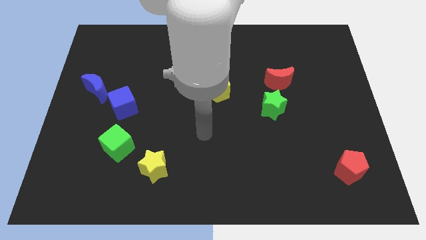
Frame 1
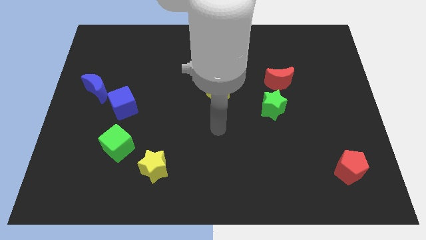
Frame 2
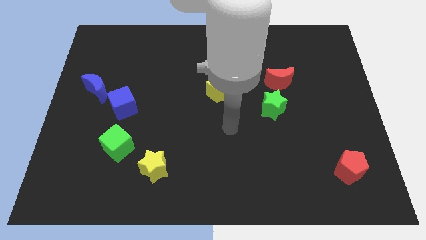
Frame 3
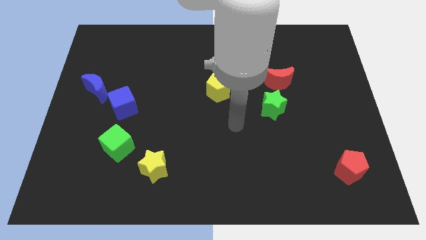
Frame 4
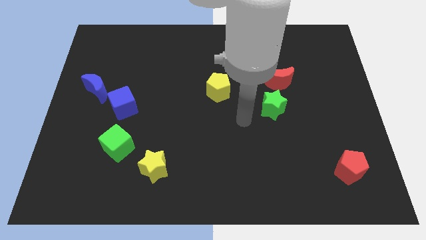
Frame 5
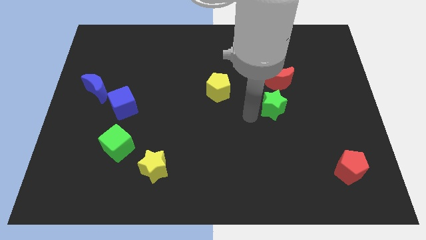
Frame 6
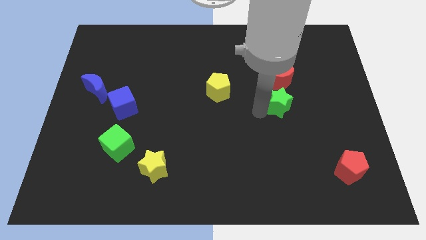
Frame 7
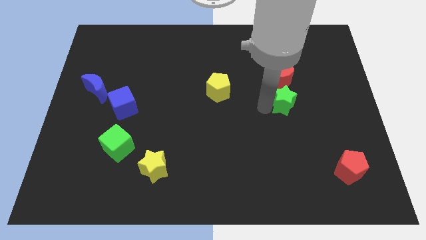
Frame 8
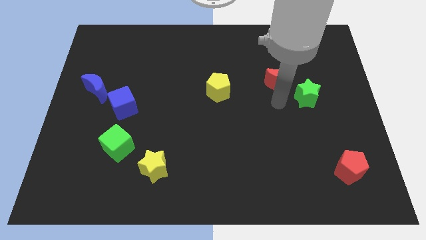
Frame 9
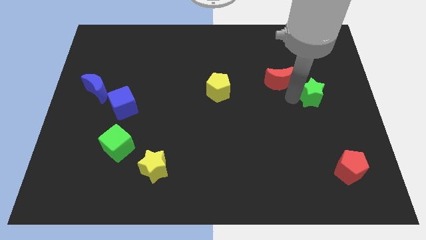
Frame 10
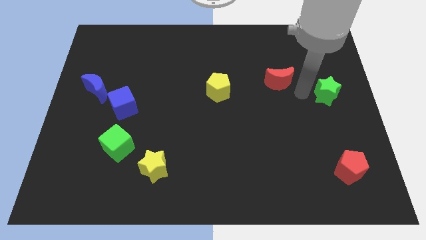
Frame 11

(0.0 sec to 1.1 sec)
move the red moon away from the green star

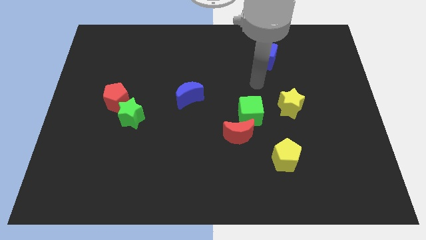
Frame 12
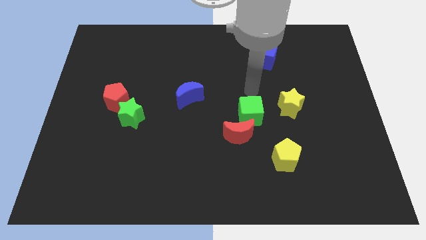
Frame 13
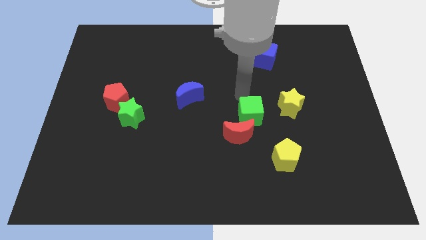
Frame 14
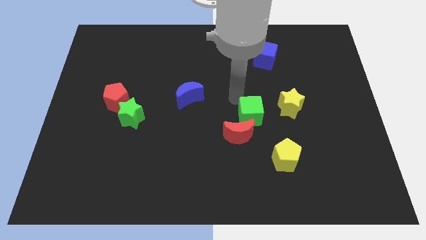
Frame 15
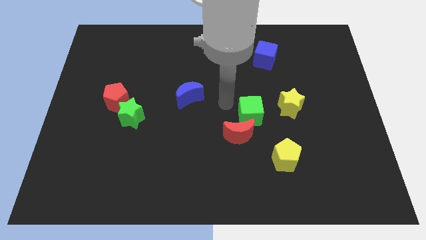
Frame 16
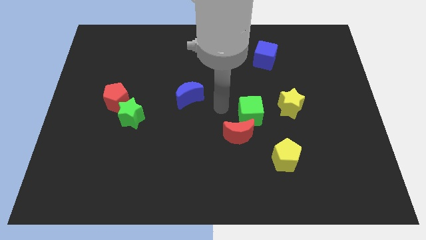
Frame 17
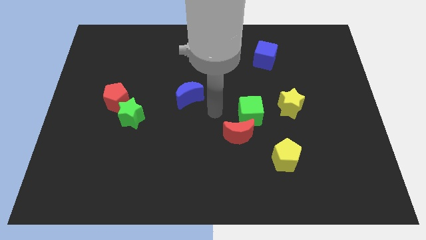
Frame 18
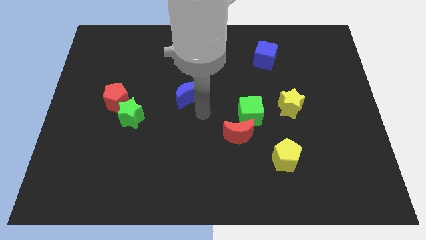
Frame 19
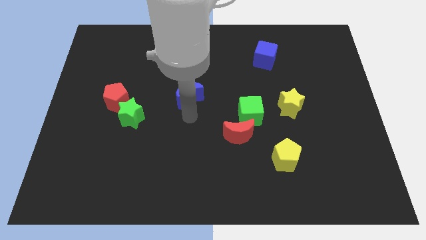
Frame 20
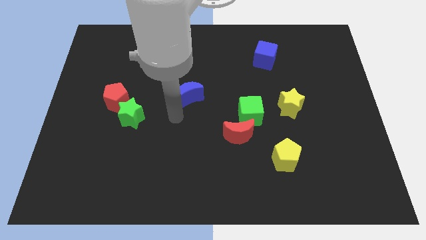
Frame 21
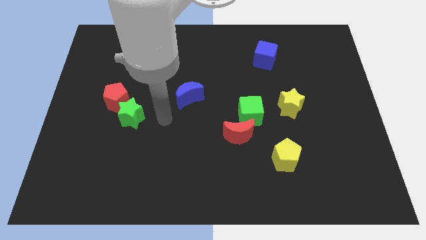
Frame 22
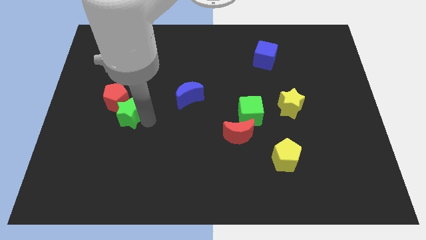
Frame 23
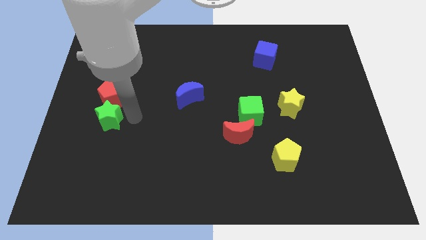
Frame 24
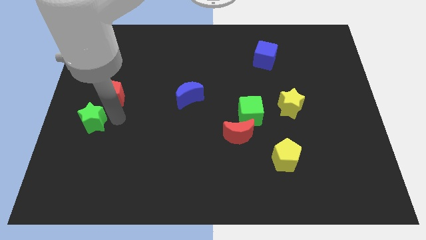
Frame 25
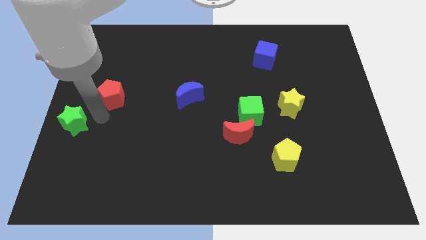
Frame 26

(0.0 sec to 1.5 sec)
separate the red pentagon from the green star

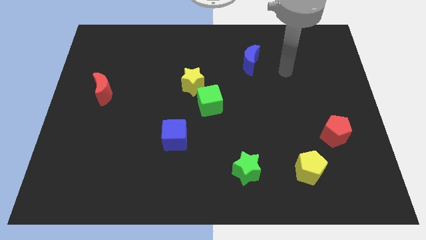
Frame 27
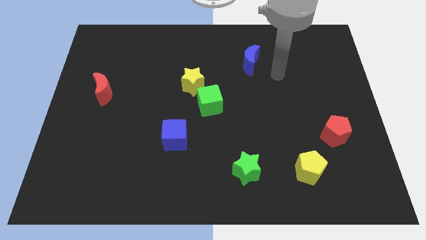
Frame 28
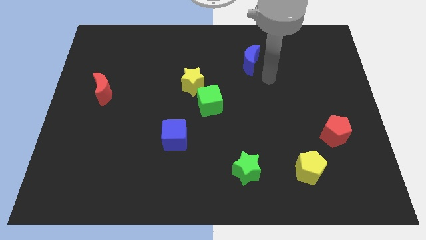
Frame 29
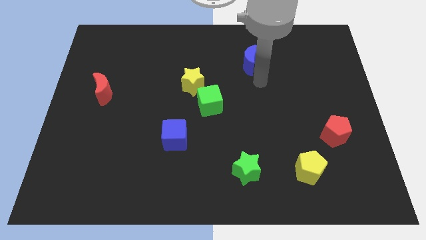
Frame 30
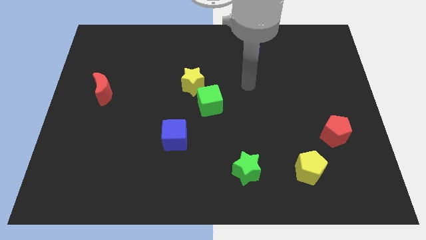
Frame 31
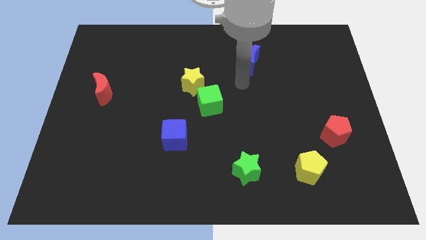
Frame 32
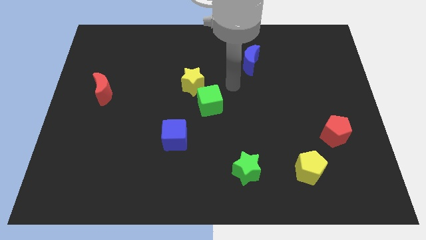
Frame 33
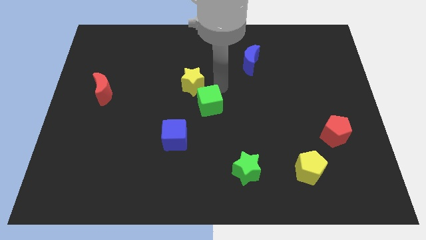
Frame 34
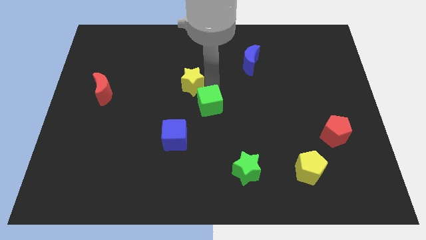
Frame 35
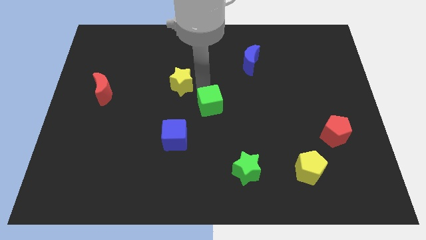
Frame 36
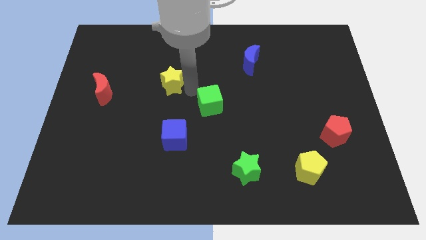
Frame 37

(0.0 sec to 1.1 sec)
move the green cube away from the yellow star

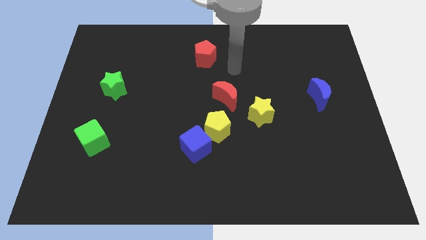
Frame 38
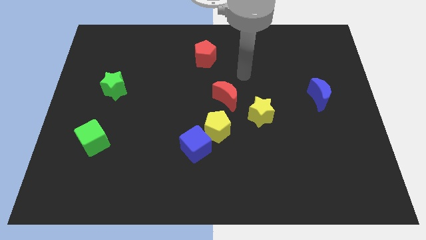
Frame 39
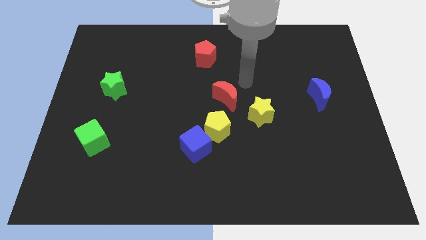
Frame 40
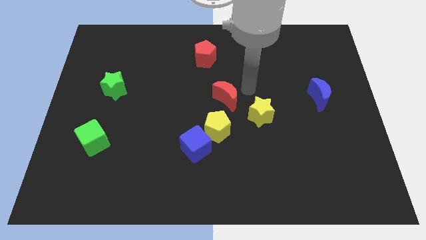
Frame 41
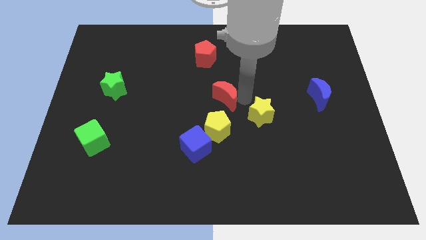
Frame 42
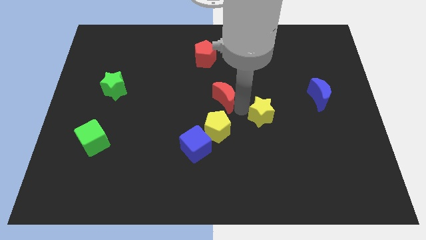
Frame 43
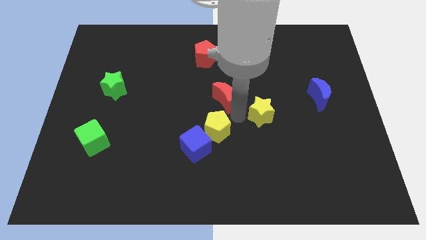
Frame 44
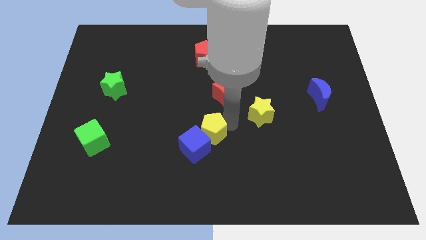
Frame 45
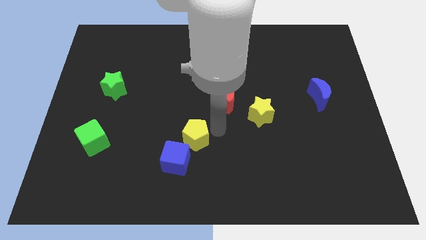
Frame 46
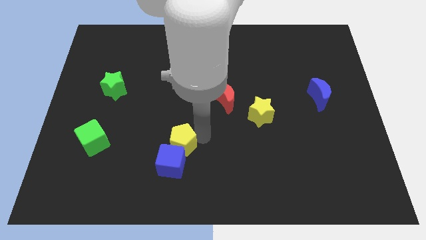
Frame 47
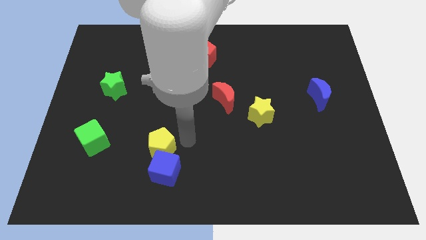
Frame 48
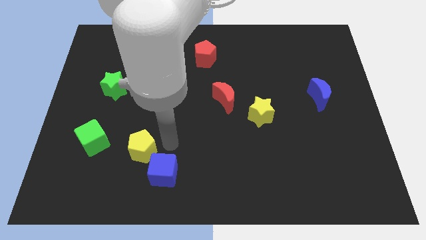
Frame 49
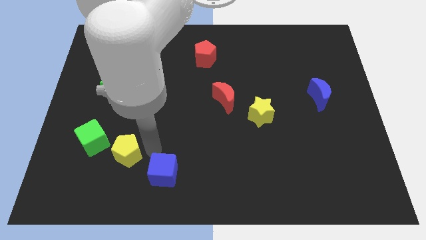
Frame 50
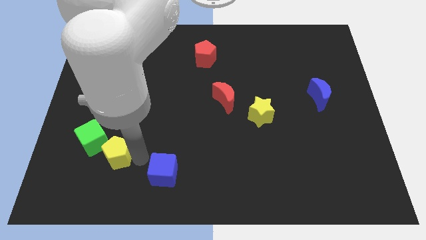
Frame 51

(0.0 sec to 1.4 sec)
pull the blue cube apart from the yellow pentagon

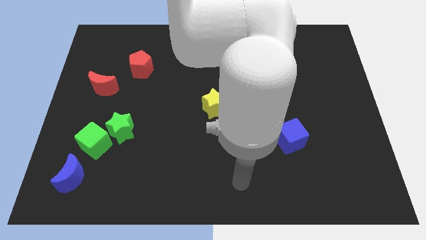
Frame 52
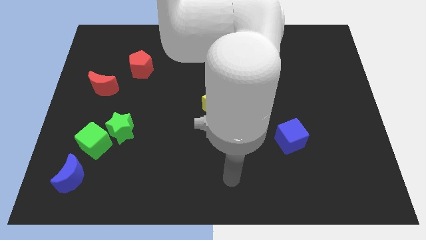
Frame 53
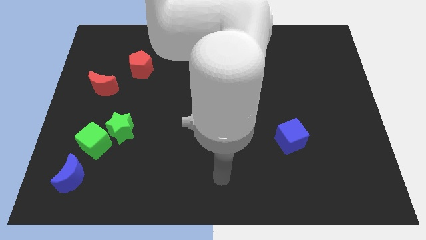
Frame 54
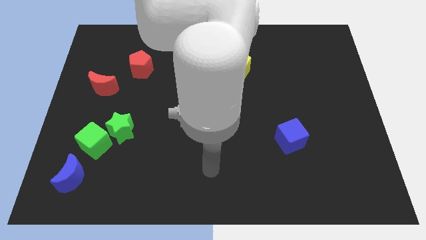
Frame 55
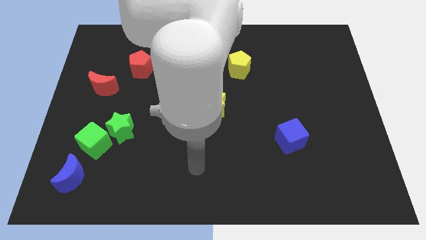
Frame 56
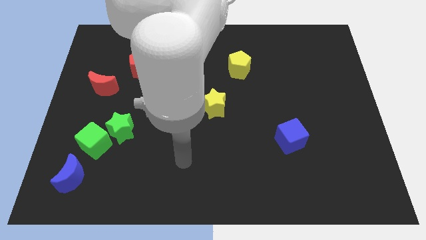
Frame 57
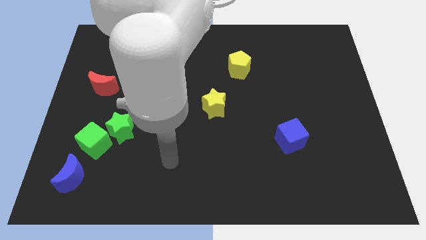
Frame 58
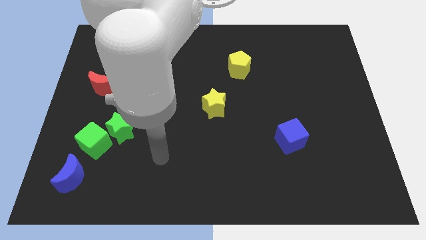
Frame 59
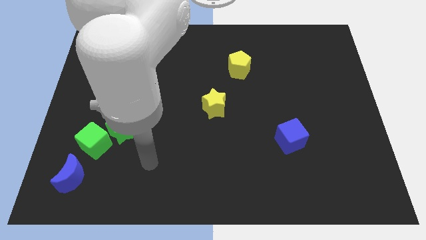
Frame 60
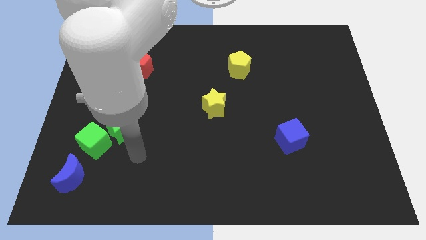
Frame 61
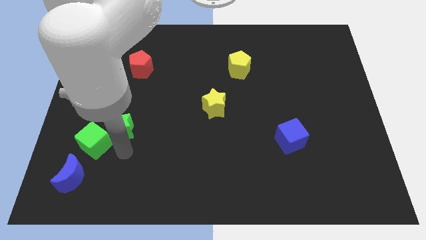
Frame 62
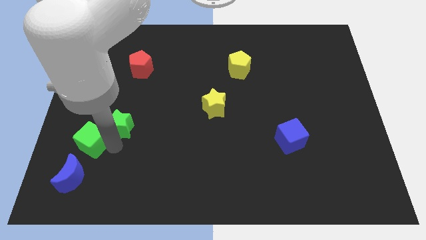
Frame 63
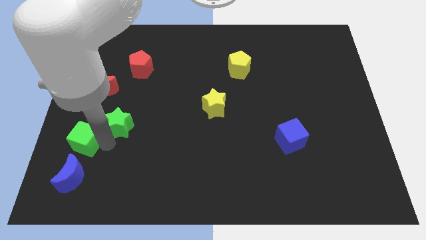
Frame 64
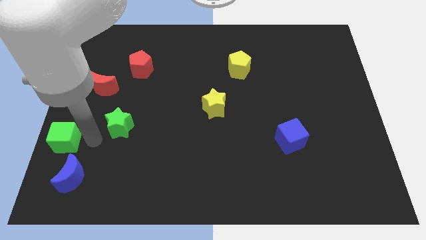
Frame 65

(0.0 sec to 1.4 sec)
move the green star away from the green cube

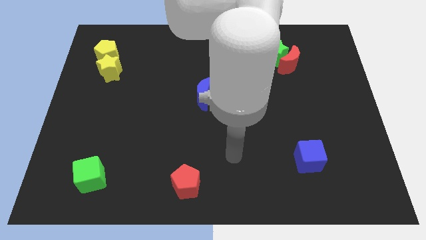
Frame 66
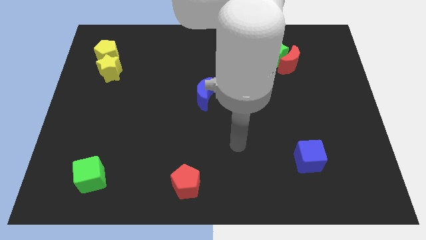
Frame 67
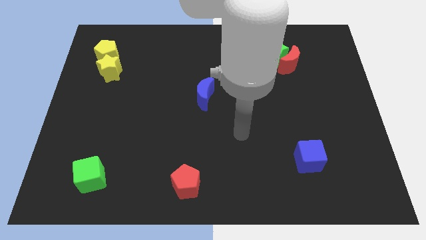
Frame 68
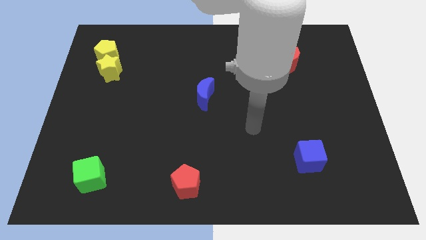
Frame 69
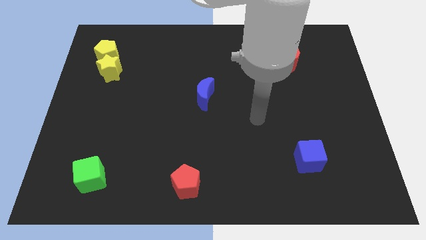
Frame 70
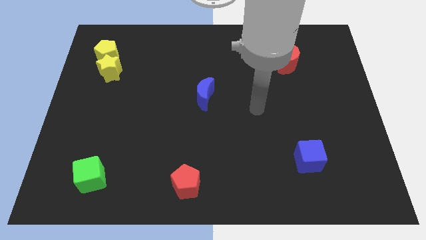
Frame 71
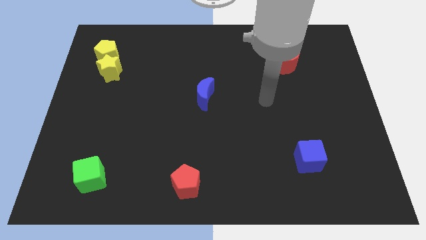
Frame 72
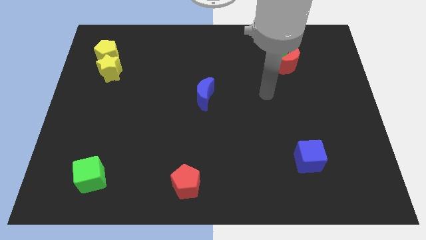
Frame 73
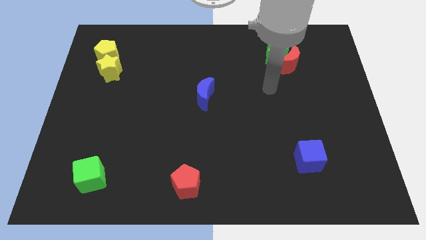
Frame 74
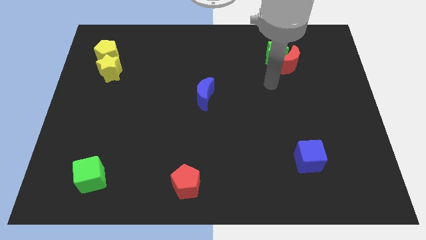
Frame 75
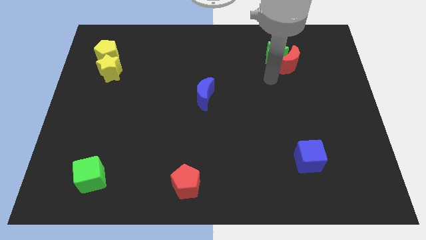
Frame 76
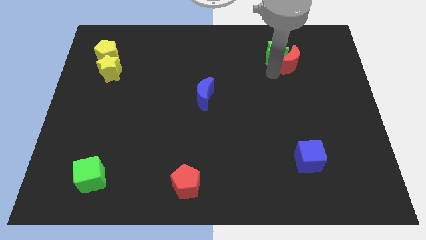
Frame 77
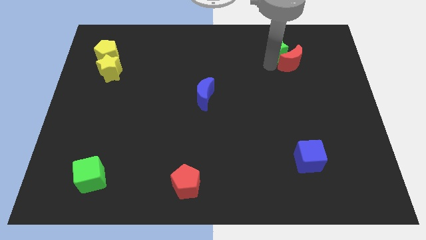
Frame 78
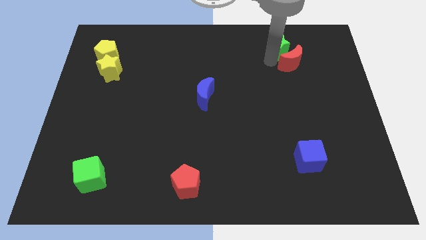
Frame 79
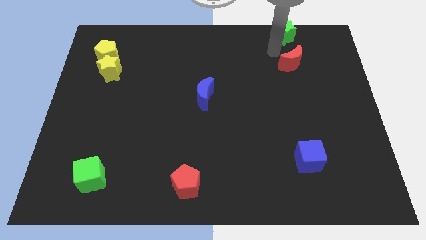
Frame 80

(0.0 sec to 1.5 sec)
pull the red moon apart from the green star

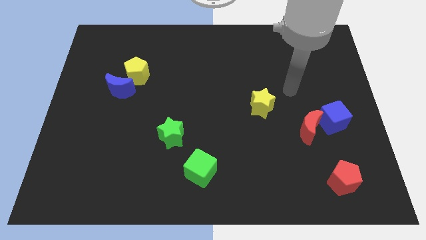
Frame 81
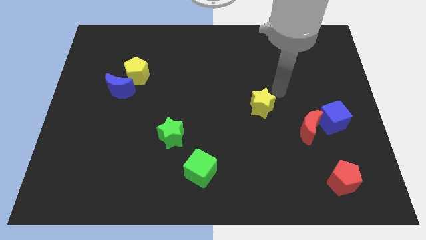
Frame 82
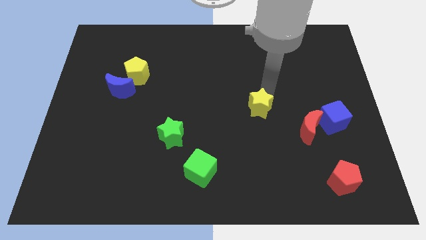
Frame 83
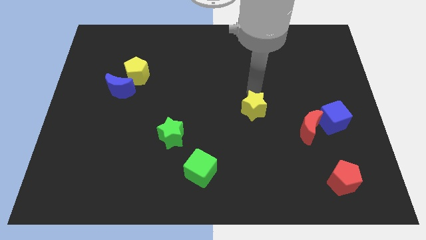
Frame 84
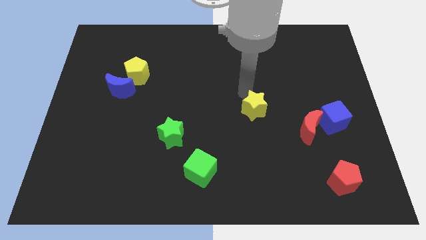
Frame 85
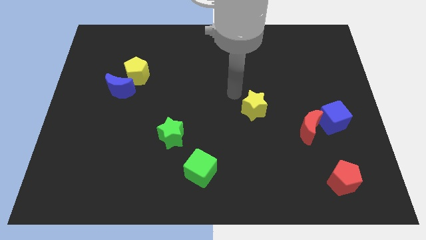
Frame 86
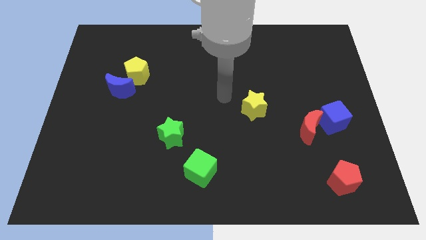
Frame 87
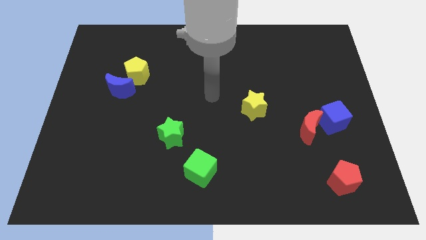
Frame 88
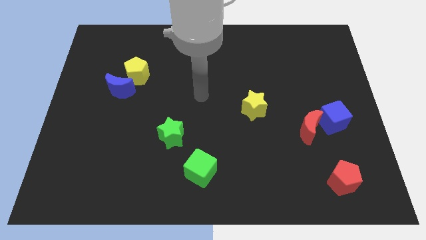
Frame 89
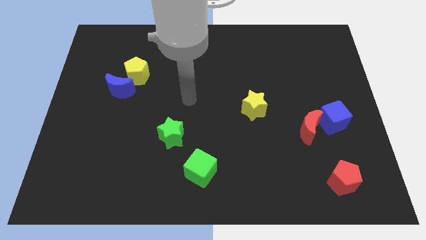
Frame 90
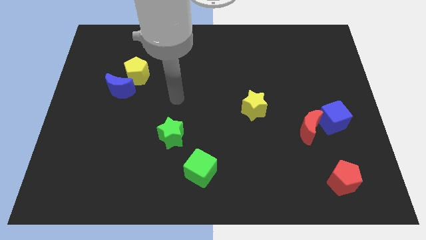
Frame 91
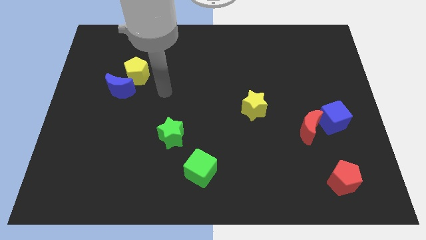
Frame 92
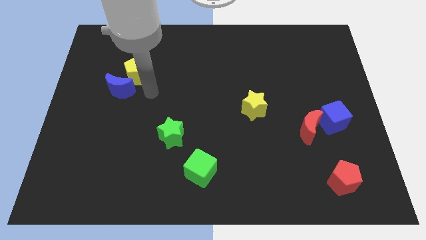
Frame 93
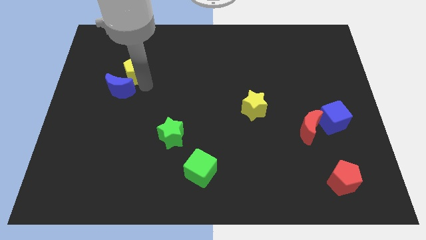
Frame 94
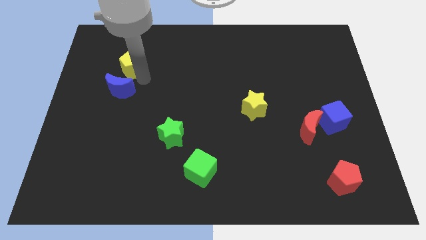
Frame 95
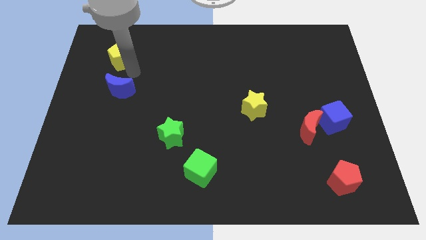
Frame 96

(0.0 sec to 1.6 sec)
separate the blue moon from the yellow pentagon
